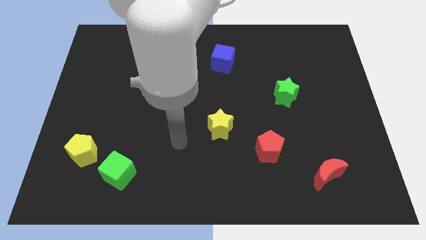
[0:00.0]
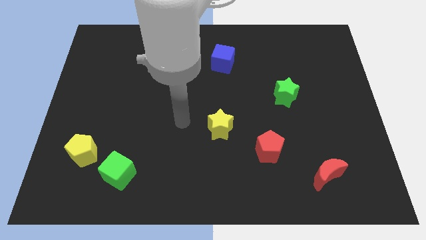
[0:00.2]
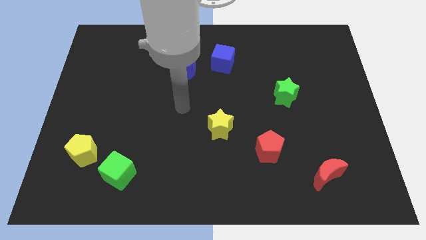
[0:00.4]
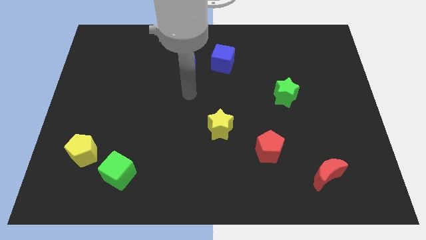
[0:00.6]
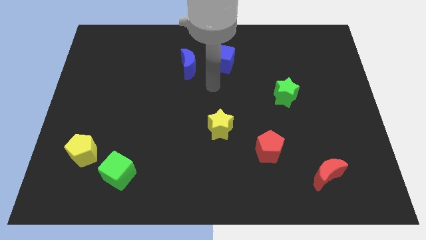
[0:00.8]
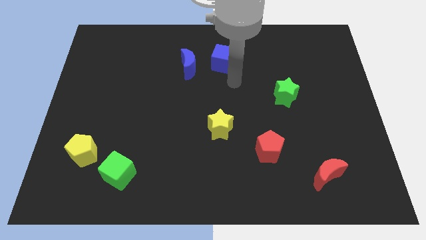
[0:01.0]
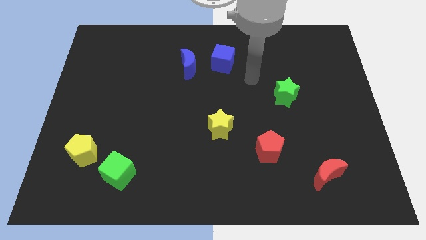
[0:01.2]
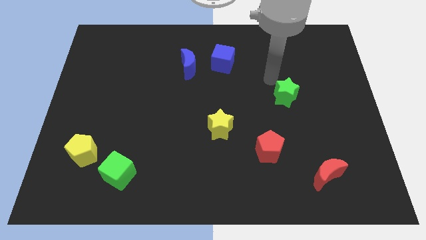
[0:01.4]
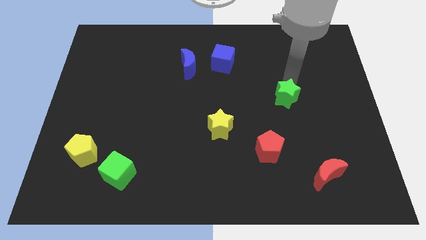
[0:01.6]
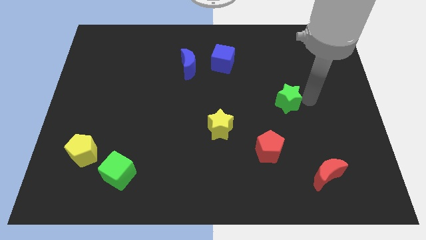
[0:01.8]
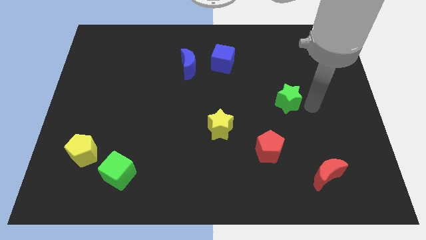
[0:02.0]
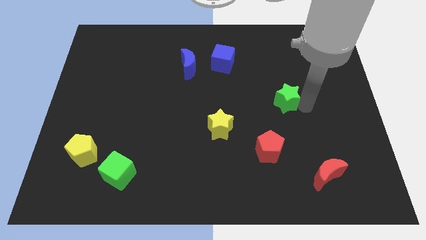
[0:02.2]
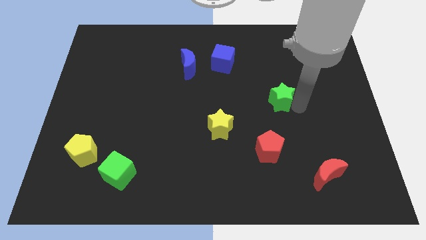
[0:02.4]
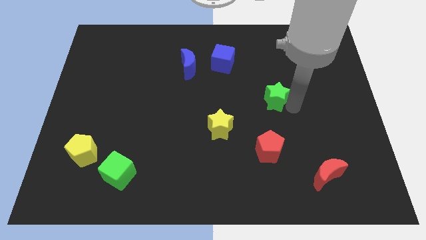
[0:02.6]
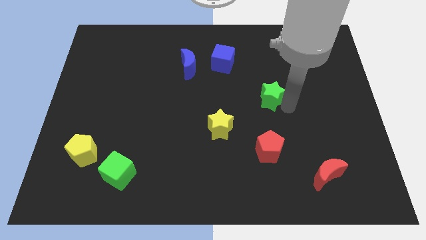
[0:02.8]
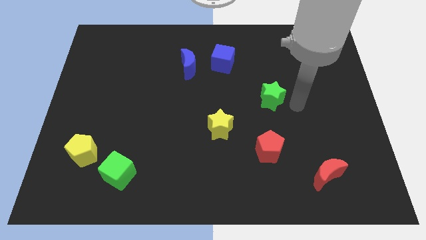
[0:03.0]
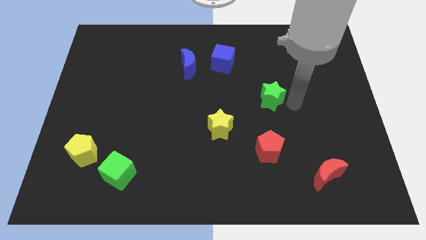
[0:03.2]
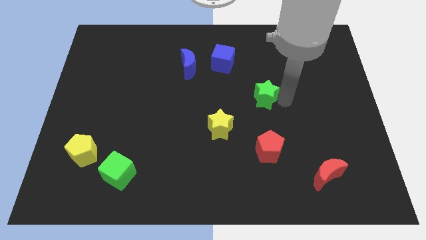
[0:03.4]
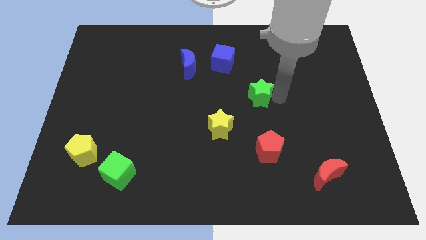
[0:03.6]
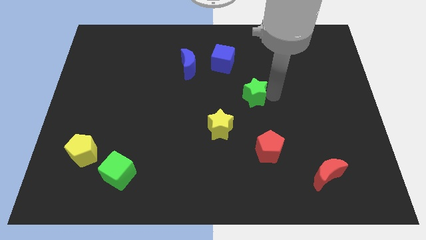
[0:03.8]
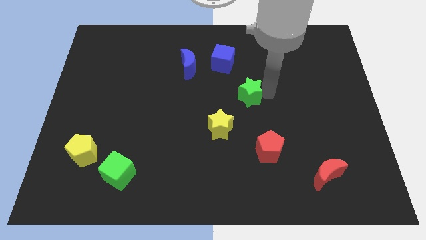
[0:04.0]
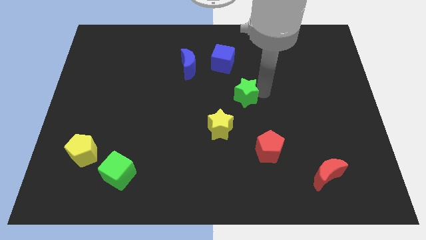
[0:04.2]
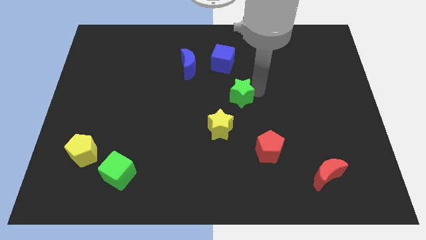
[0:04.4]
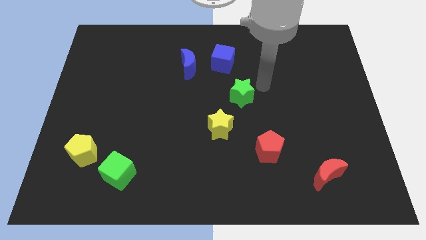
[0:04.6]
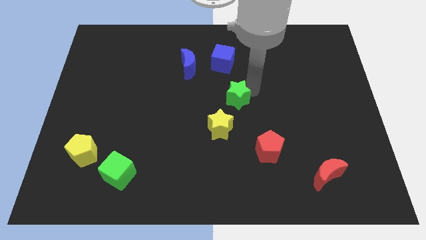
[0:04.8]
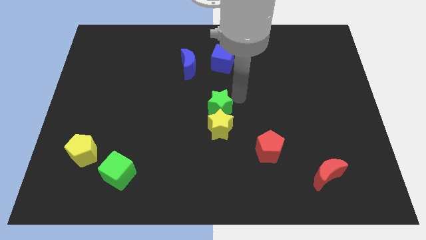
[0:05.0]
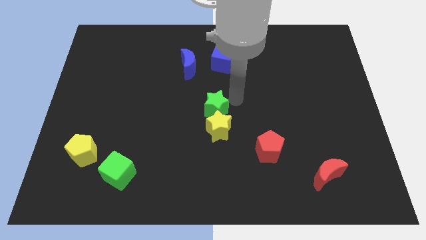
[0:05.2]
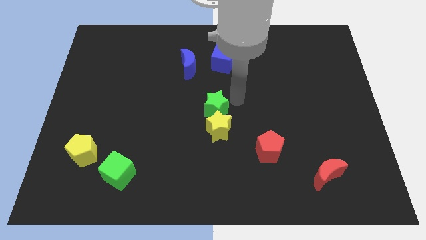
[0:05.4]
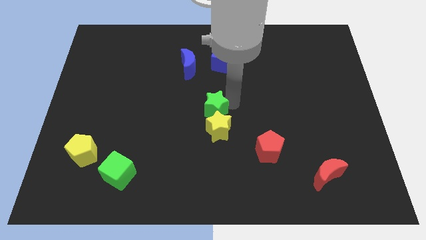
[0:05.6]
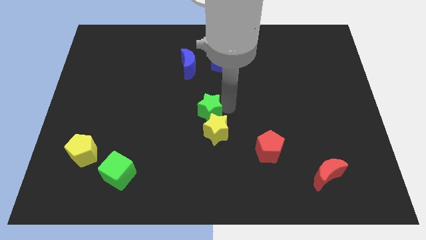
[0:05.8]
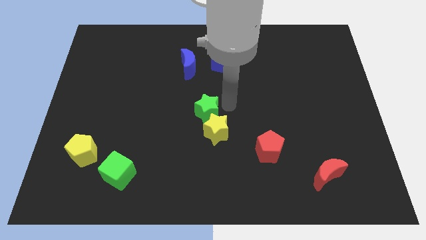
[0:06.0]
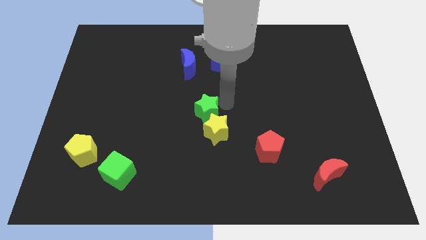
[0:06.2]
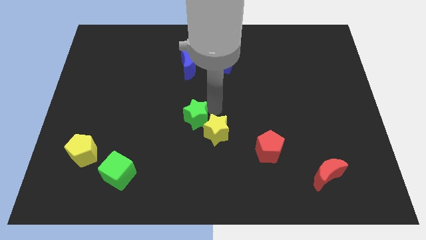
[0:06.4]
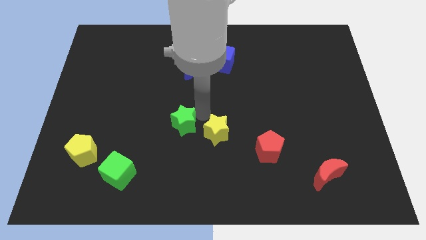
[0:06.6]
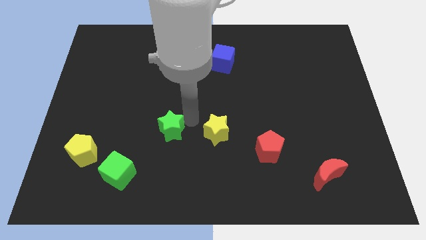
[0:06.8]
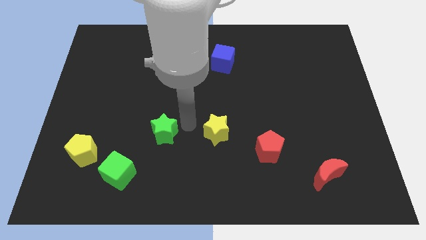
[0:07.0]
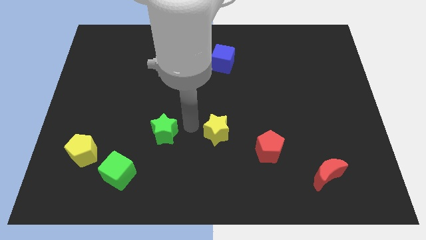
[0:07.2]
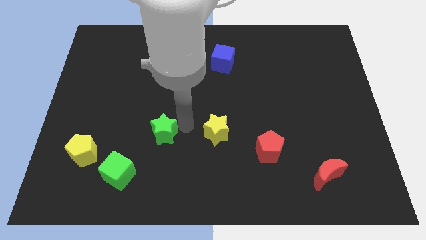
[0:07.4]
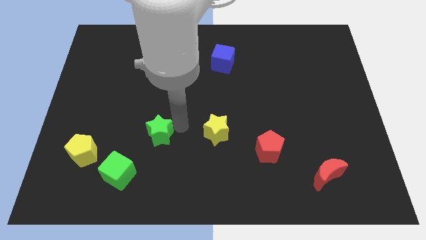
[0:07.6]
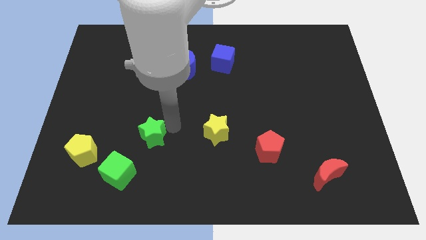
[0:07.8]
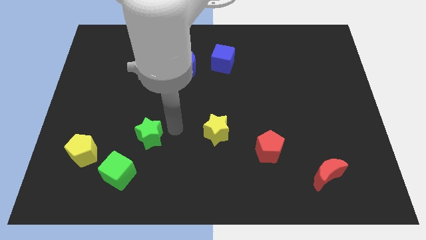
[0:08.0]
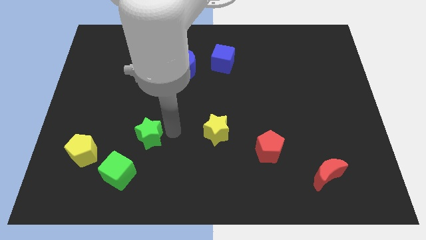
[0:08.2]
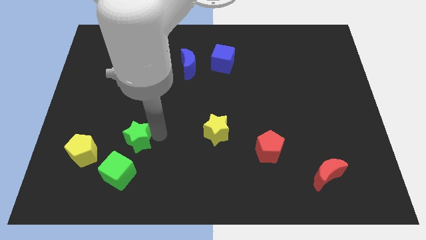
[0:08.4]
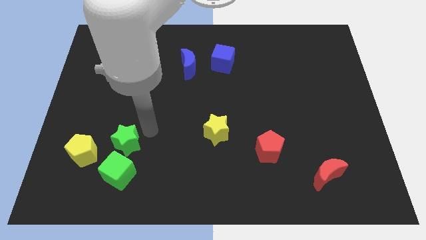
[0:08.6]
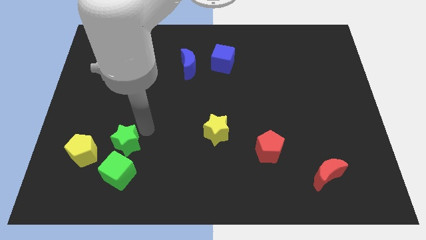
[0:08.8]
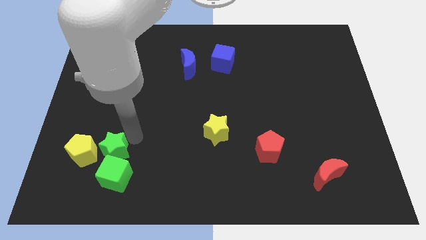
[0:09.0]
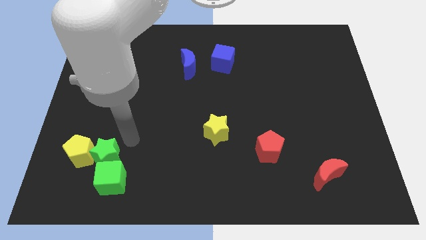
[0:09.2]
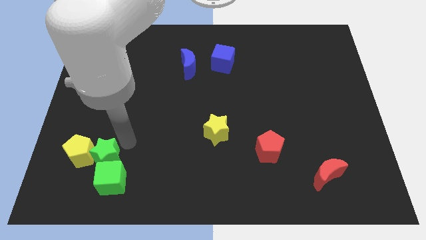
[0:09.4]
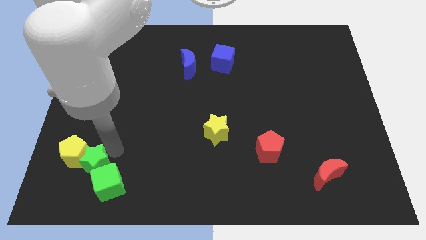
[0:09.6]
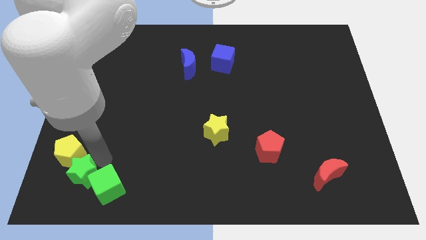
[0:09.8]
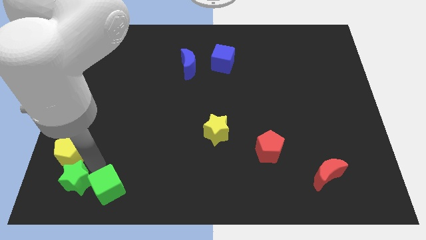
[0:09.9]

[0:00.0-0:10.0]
move the green star to the bottom left
